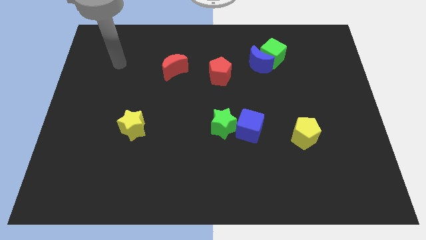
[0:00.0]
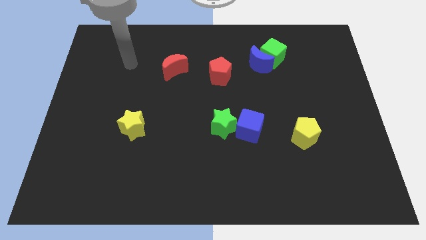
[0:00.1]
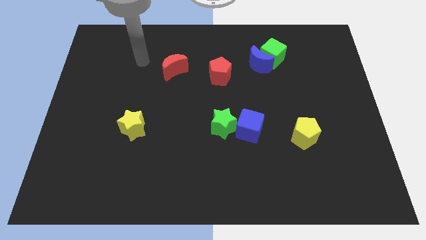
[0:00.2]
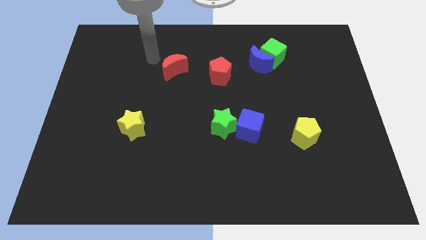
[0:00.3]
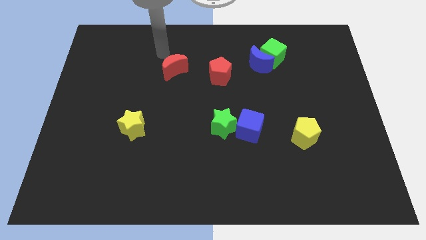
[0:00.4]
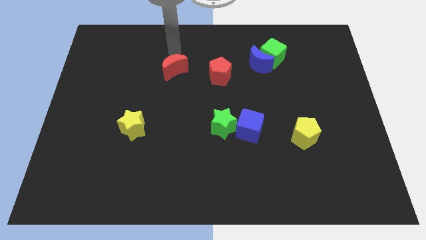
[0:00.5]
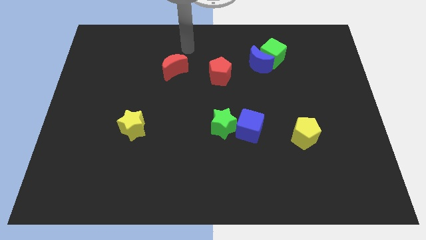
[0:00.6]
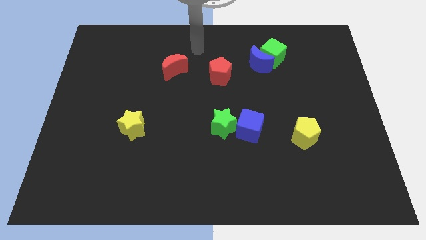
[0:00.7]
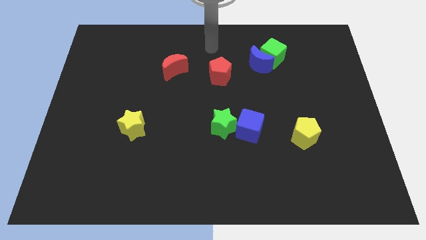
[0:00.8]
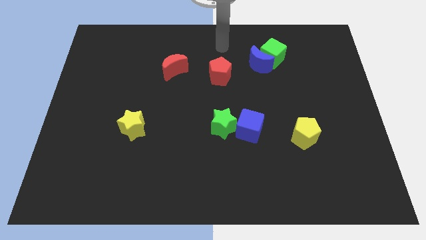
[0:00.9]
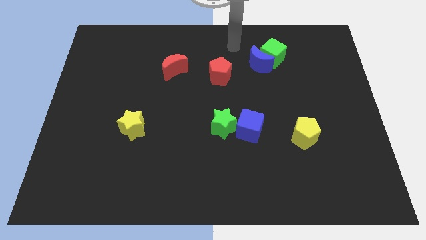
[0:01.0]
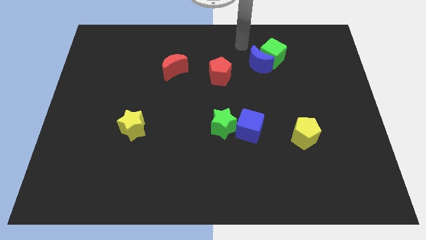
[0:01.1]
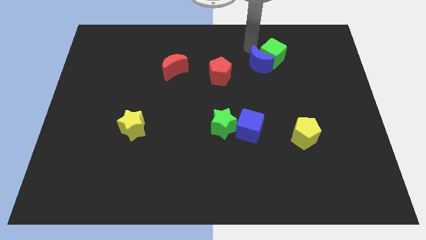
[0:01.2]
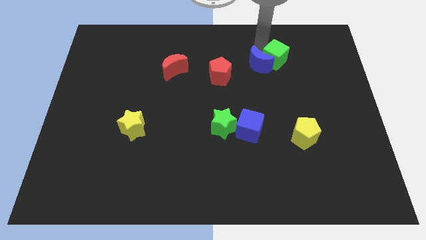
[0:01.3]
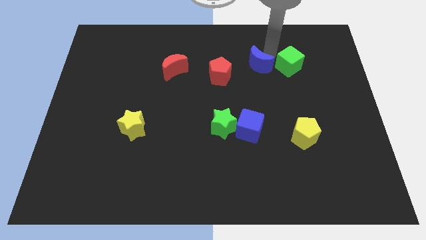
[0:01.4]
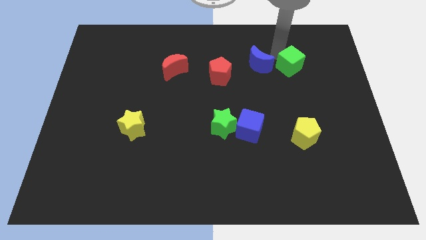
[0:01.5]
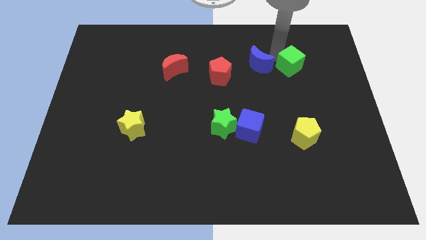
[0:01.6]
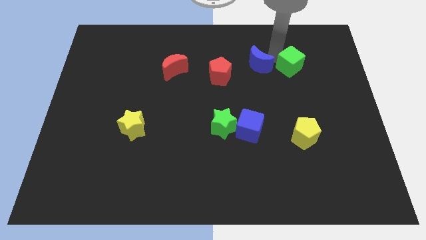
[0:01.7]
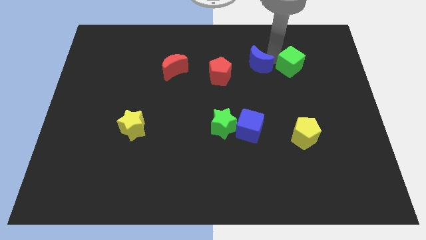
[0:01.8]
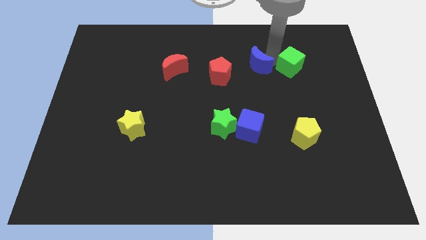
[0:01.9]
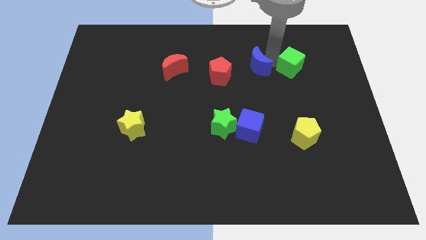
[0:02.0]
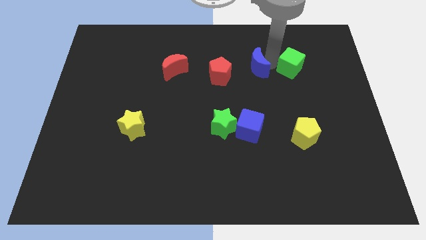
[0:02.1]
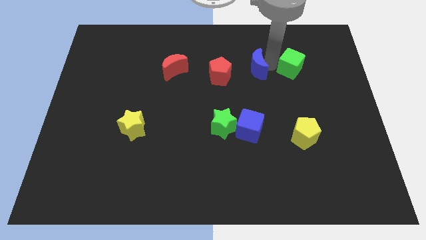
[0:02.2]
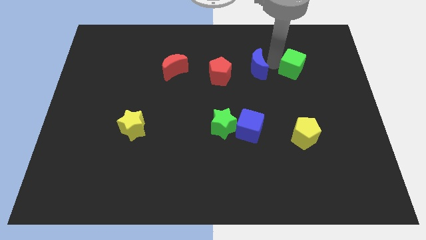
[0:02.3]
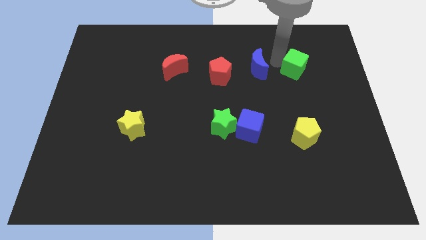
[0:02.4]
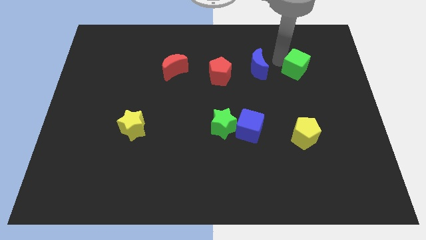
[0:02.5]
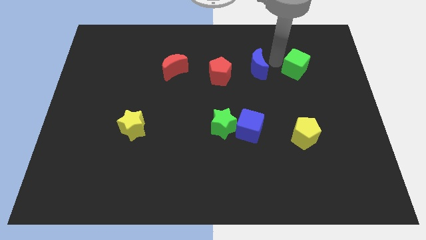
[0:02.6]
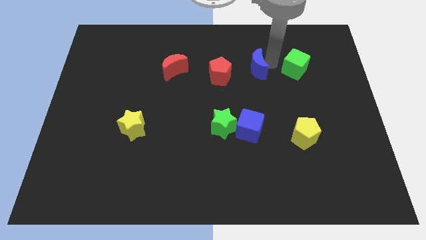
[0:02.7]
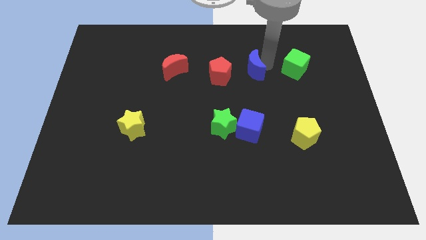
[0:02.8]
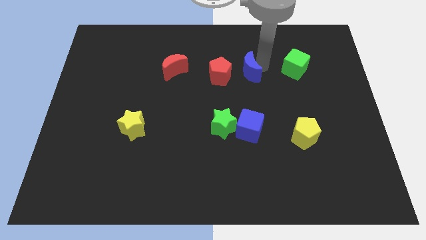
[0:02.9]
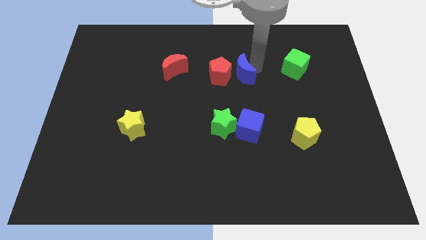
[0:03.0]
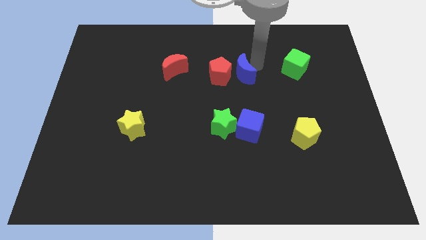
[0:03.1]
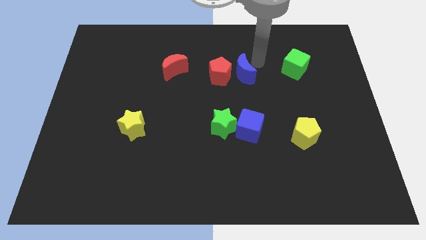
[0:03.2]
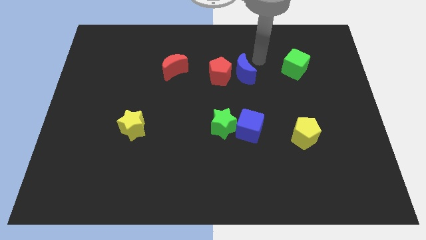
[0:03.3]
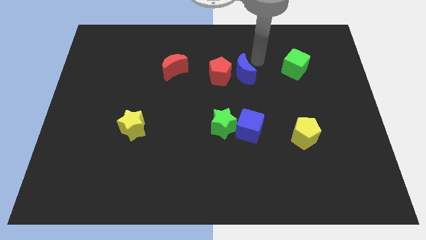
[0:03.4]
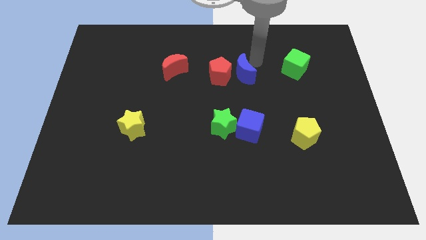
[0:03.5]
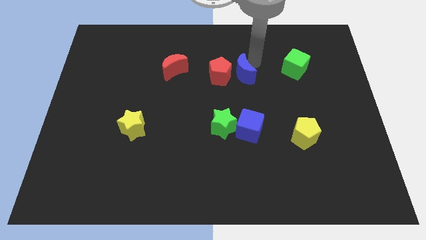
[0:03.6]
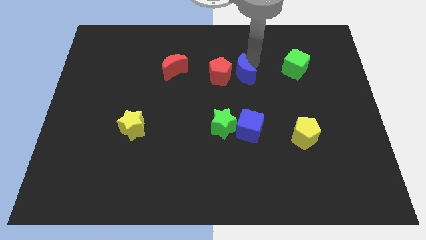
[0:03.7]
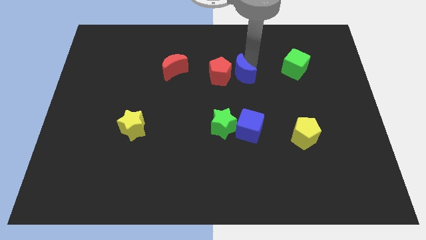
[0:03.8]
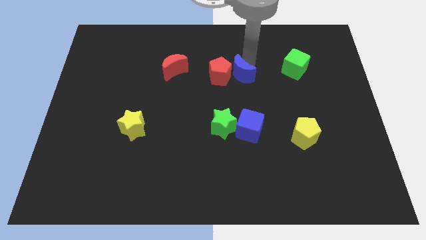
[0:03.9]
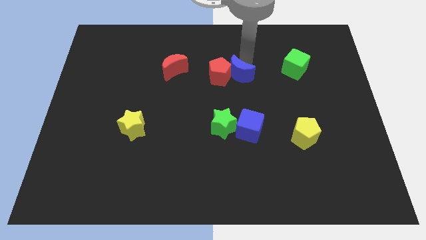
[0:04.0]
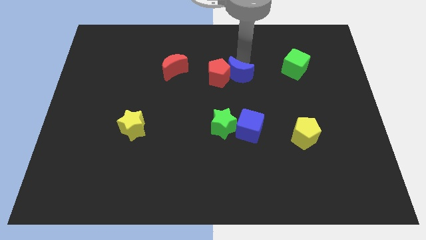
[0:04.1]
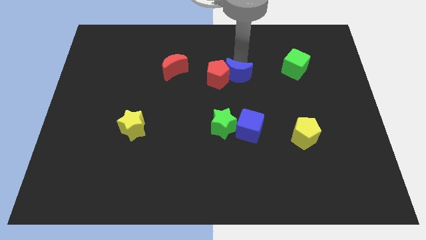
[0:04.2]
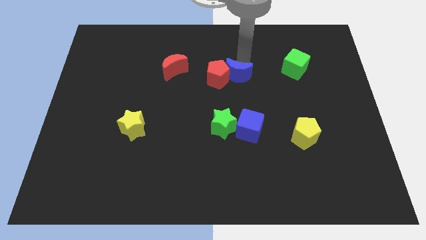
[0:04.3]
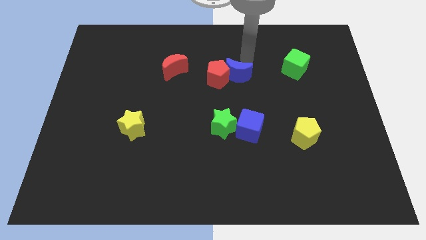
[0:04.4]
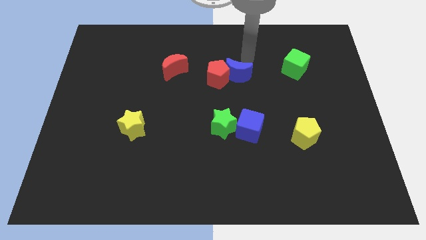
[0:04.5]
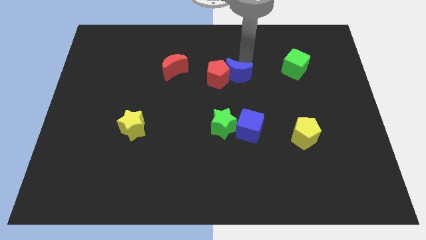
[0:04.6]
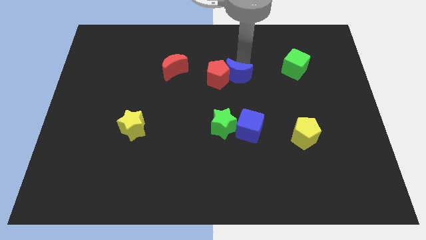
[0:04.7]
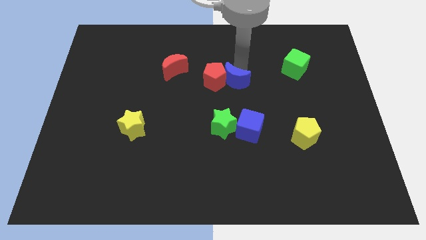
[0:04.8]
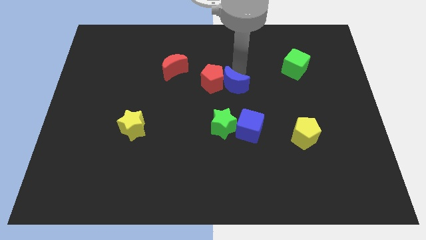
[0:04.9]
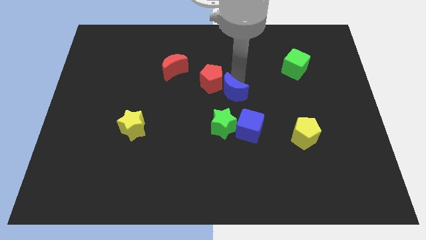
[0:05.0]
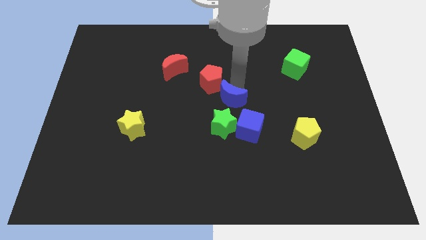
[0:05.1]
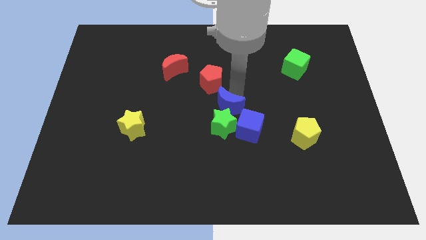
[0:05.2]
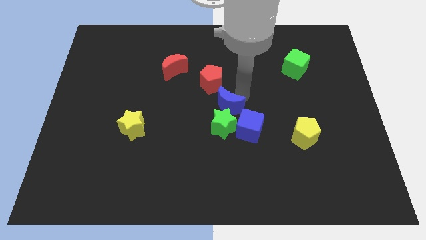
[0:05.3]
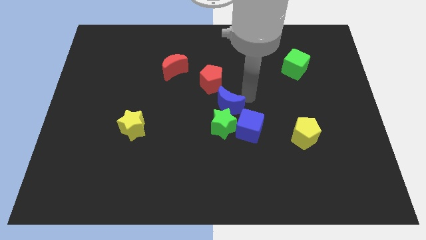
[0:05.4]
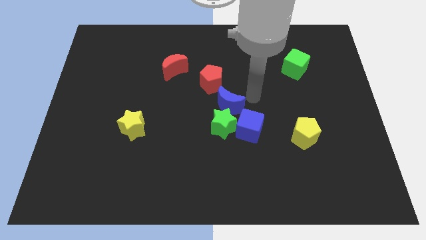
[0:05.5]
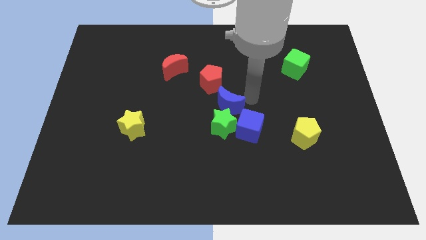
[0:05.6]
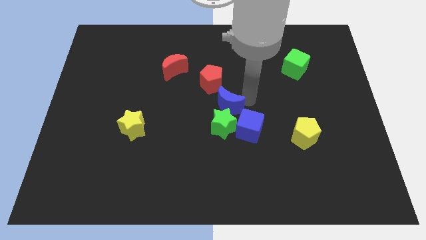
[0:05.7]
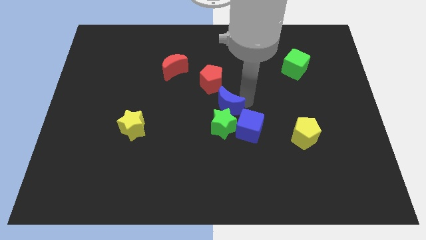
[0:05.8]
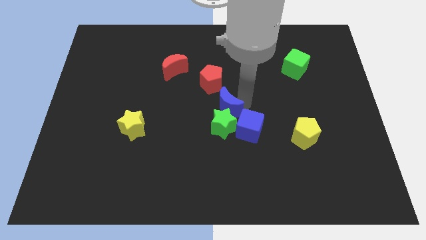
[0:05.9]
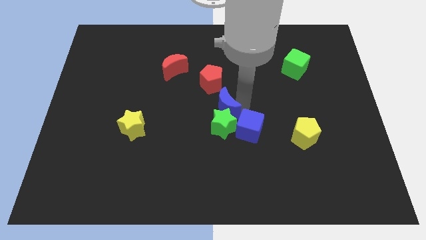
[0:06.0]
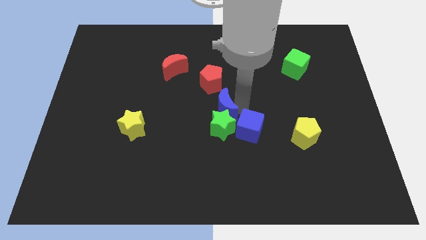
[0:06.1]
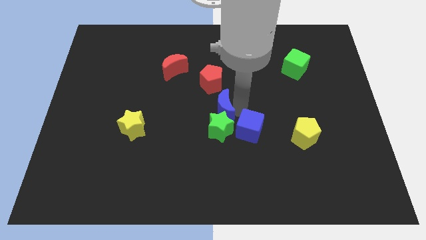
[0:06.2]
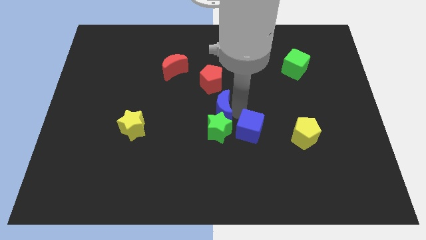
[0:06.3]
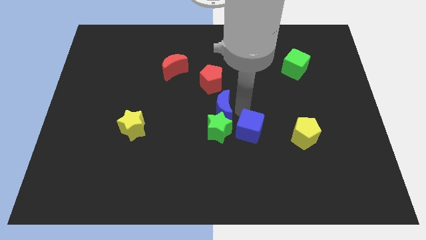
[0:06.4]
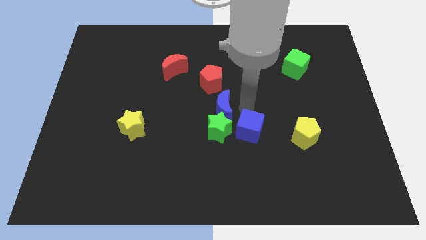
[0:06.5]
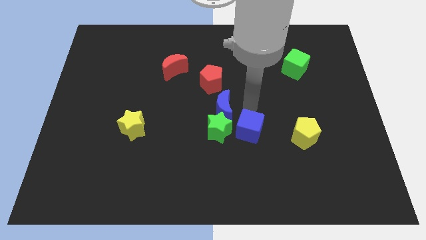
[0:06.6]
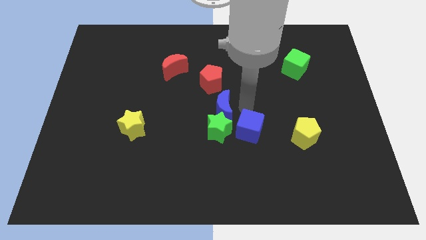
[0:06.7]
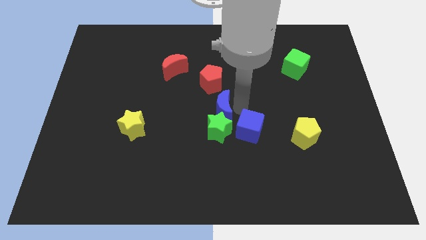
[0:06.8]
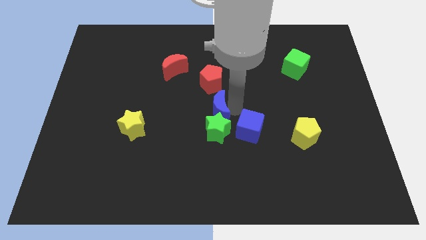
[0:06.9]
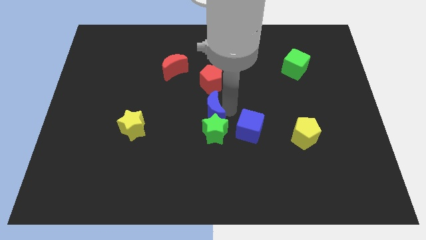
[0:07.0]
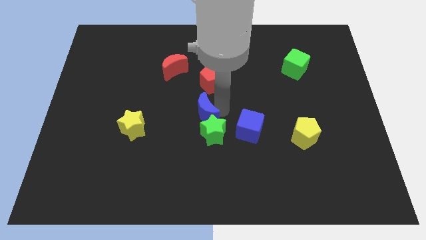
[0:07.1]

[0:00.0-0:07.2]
push the blue moon down and left diagonally

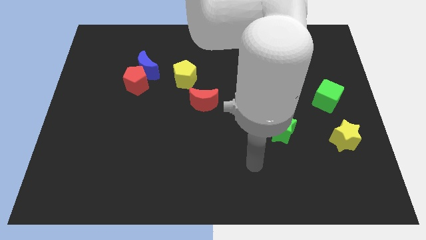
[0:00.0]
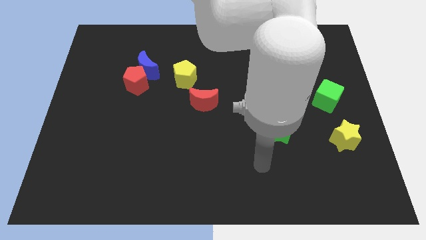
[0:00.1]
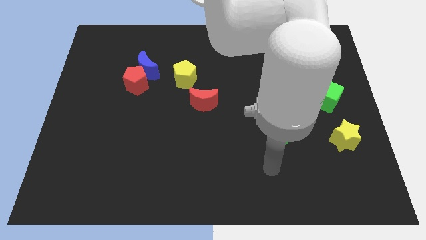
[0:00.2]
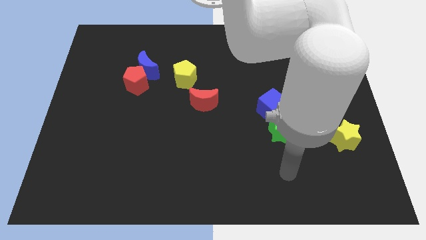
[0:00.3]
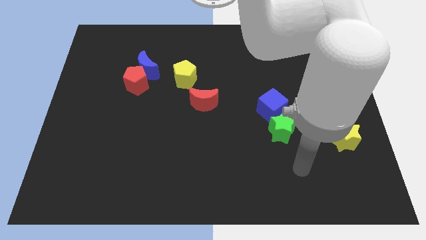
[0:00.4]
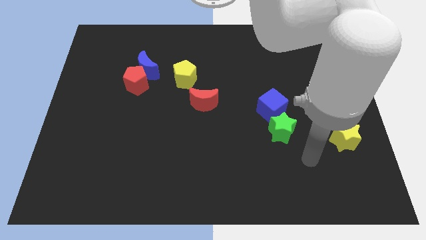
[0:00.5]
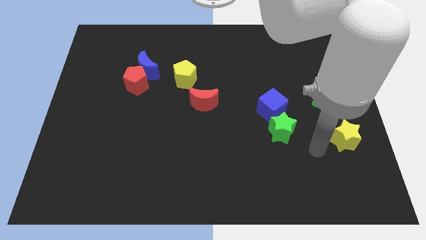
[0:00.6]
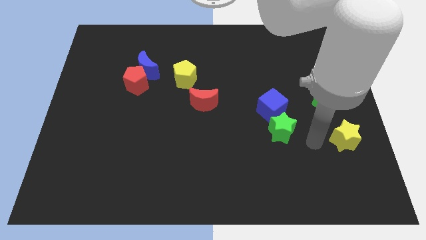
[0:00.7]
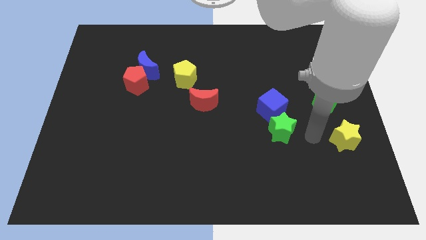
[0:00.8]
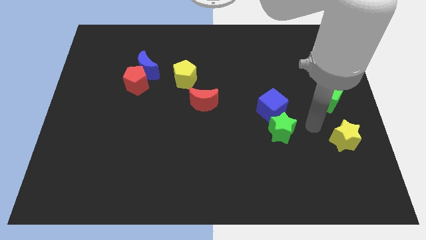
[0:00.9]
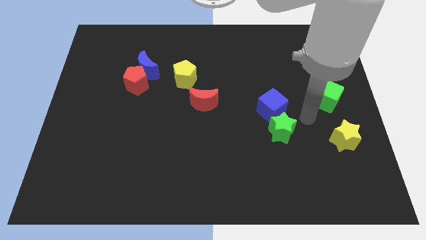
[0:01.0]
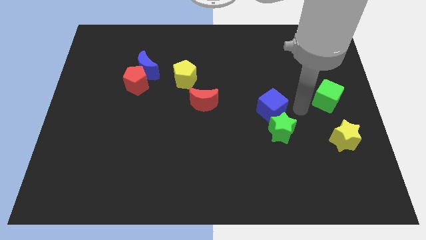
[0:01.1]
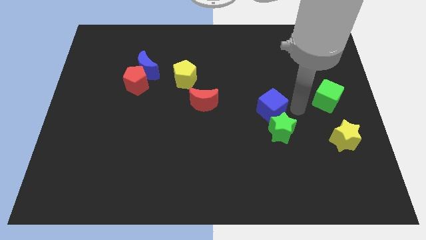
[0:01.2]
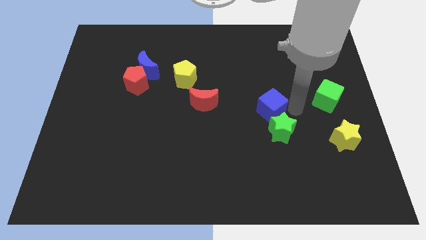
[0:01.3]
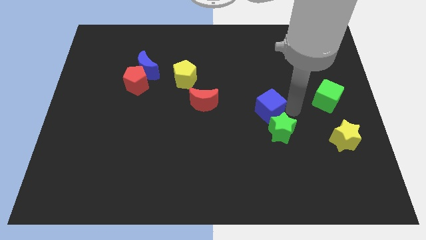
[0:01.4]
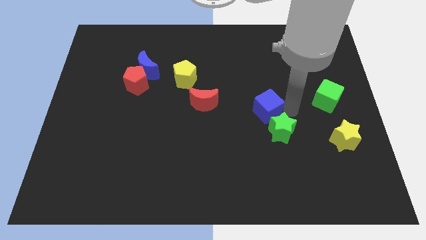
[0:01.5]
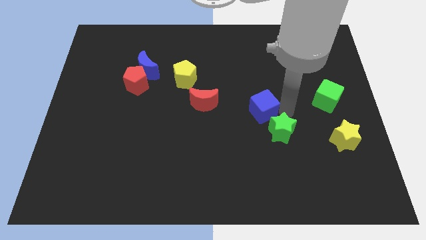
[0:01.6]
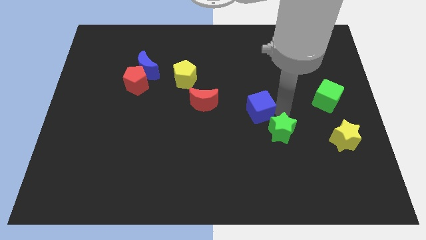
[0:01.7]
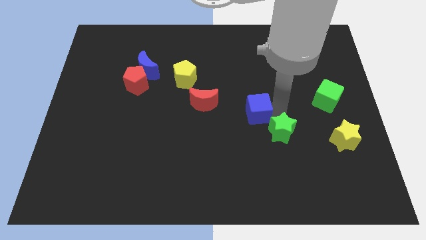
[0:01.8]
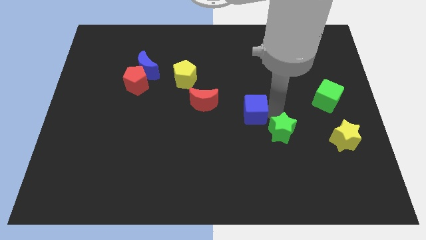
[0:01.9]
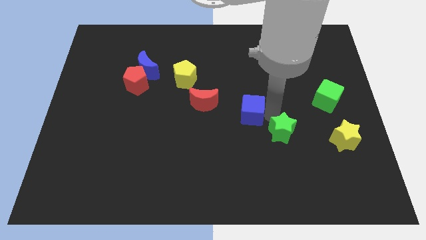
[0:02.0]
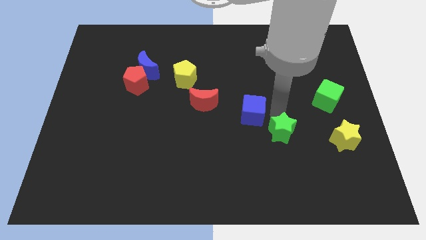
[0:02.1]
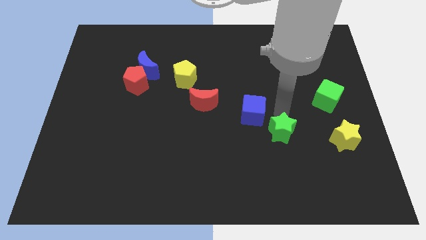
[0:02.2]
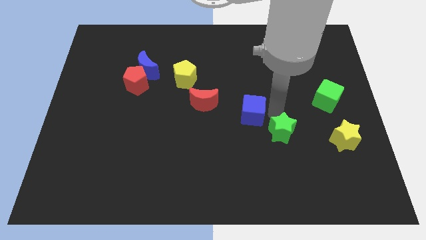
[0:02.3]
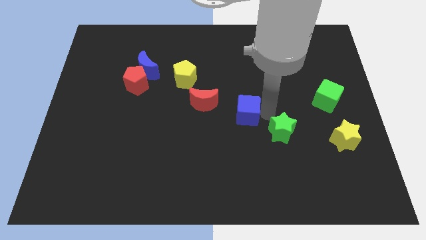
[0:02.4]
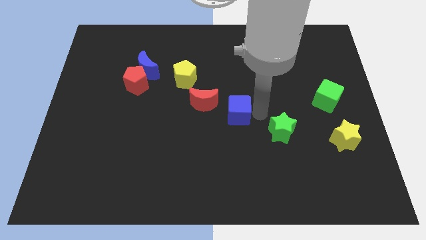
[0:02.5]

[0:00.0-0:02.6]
slightly slide the blue cube left
